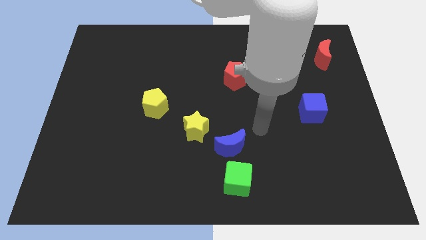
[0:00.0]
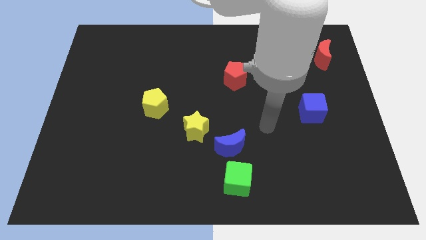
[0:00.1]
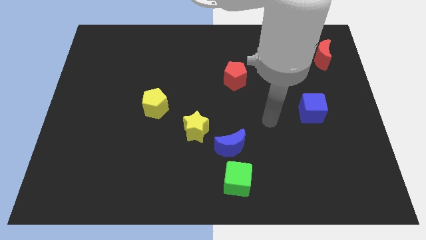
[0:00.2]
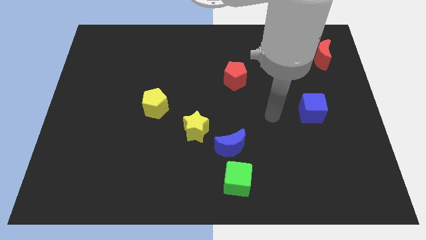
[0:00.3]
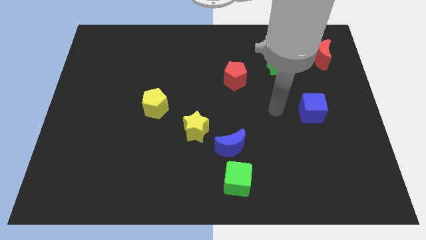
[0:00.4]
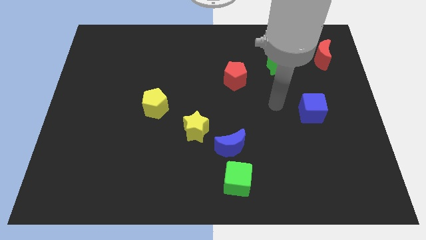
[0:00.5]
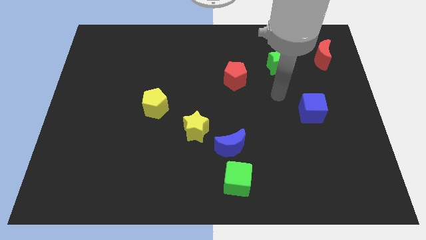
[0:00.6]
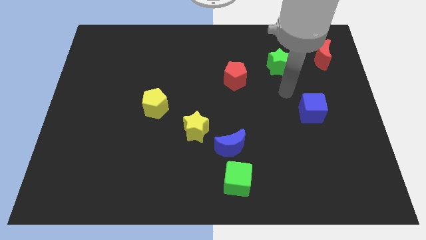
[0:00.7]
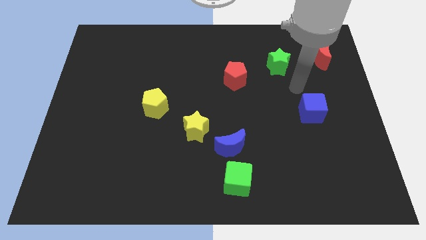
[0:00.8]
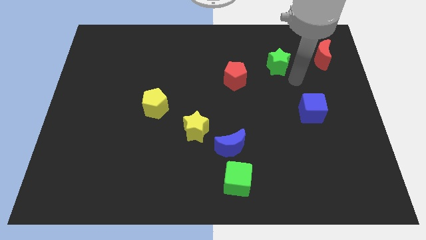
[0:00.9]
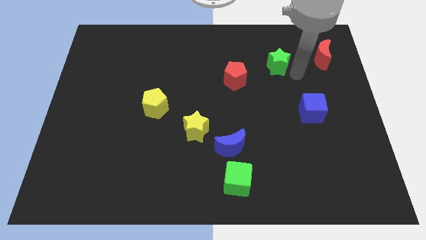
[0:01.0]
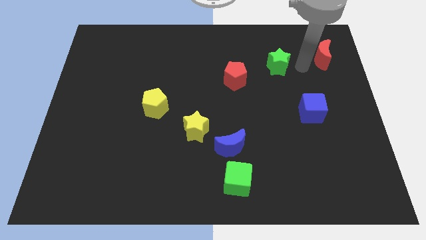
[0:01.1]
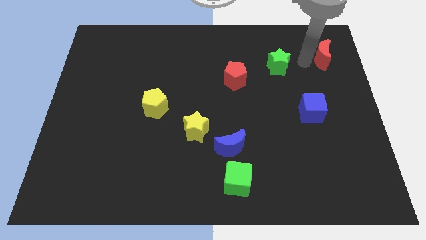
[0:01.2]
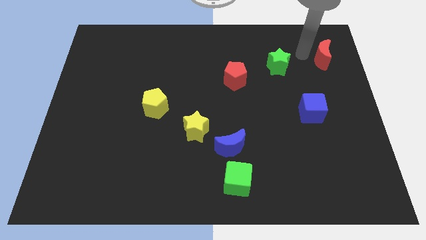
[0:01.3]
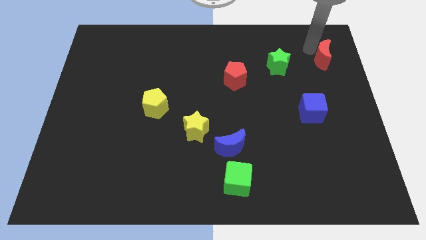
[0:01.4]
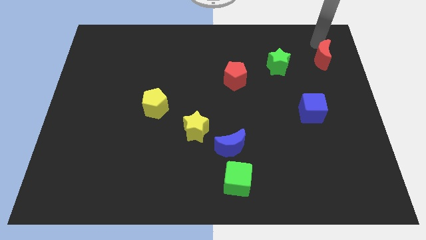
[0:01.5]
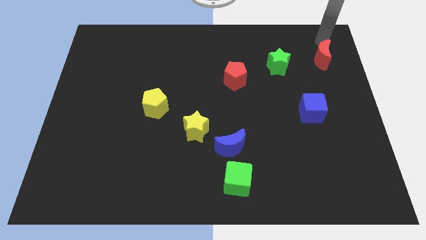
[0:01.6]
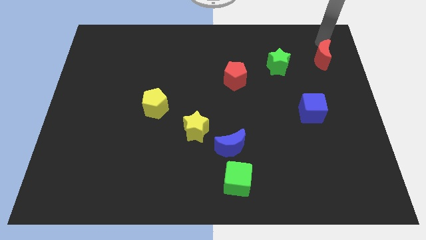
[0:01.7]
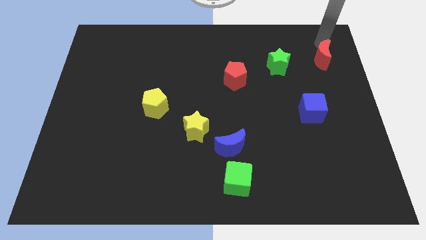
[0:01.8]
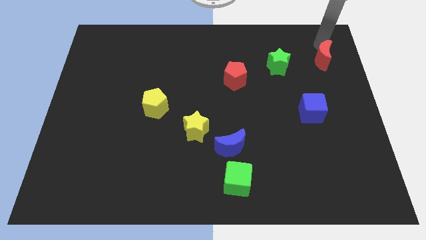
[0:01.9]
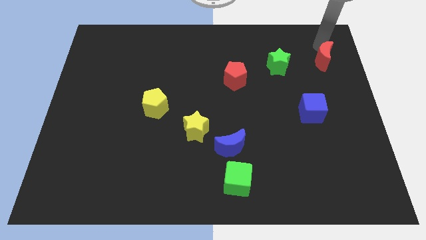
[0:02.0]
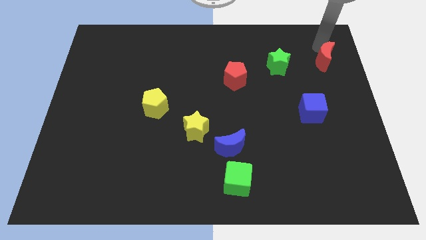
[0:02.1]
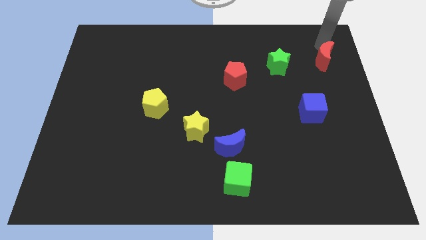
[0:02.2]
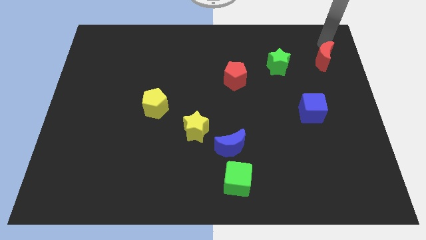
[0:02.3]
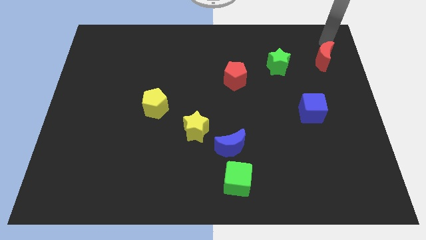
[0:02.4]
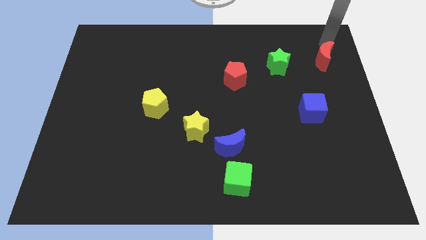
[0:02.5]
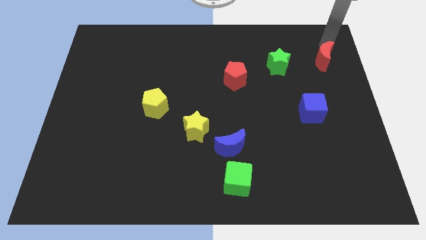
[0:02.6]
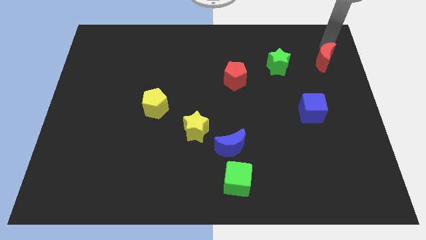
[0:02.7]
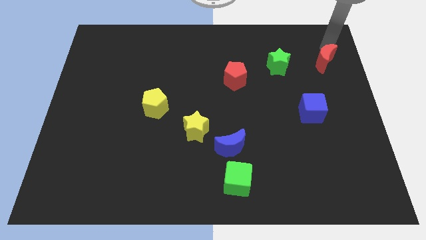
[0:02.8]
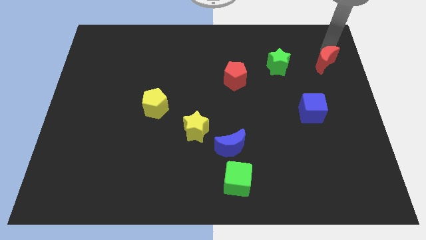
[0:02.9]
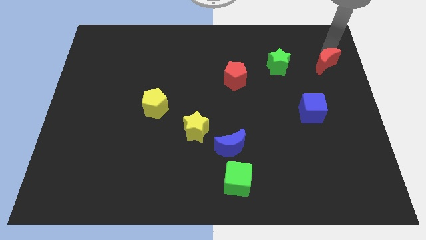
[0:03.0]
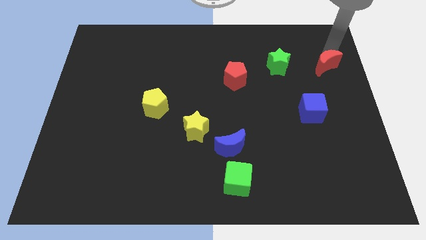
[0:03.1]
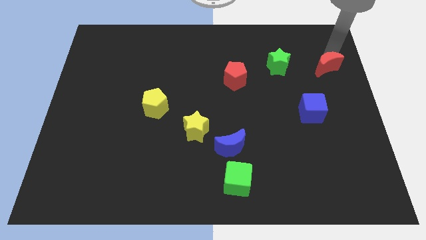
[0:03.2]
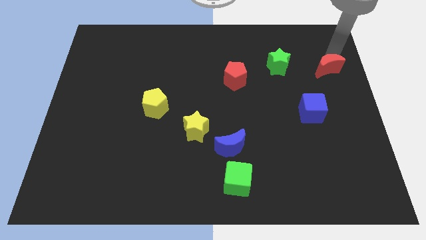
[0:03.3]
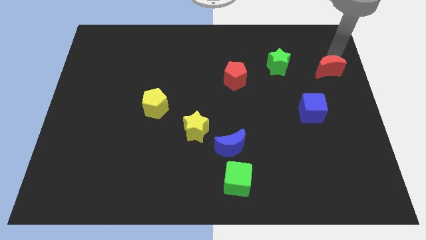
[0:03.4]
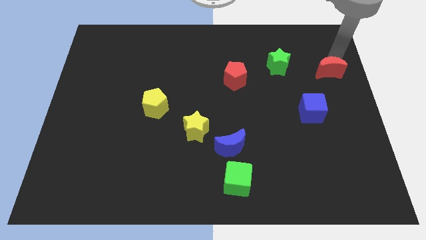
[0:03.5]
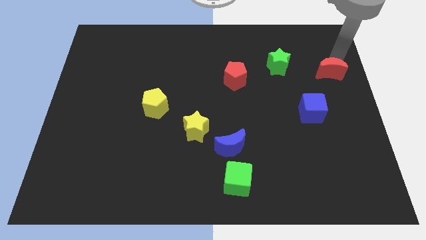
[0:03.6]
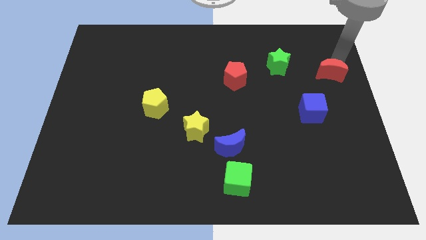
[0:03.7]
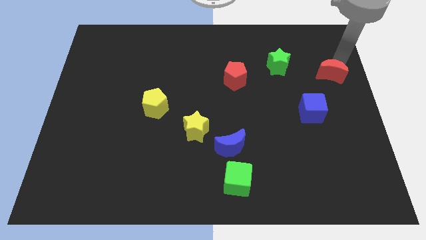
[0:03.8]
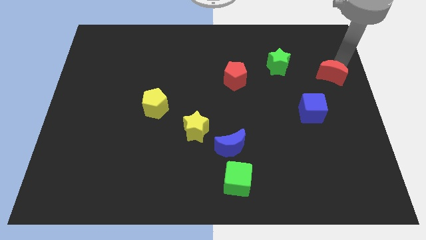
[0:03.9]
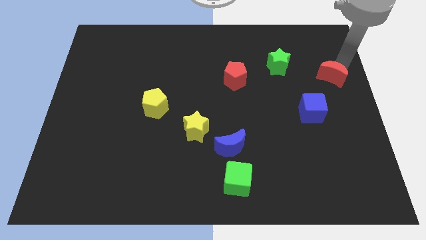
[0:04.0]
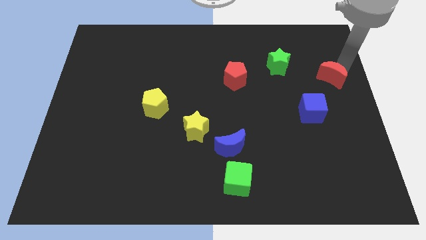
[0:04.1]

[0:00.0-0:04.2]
push the red moon down a little

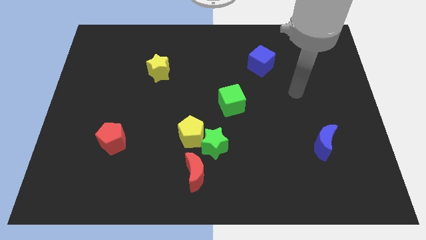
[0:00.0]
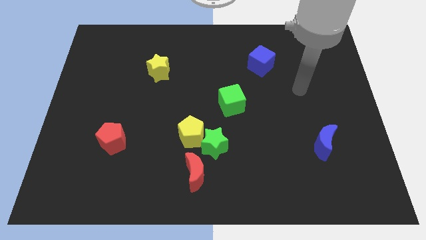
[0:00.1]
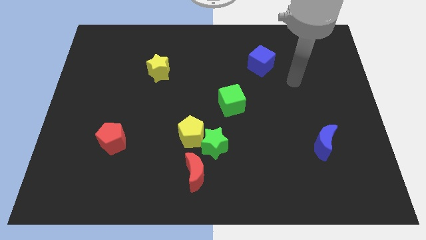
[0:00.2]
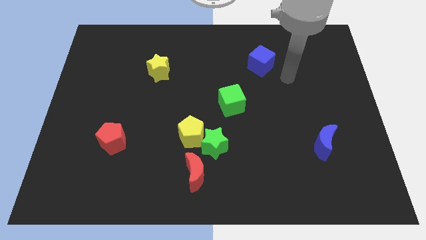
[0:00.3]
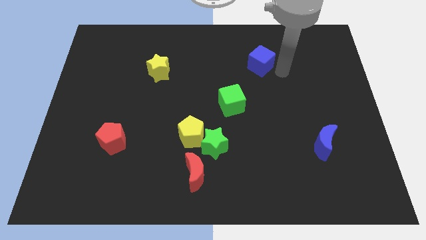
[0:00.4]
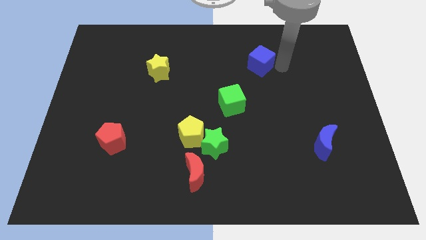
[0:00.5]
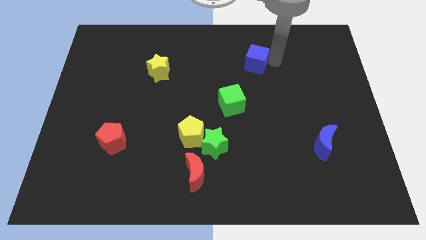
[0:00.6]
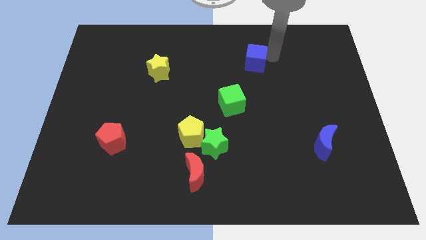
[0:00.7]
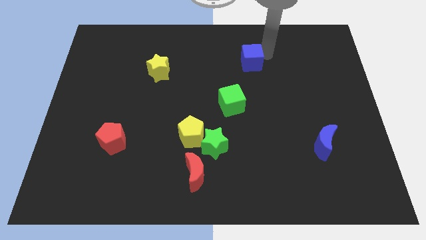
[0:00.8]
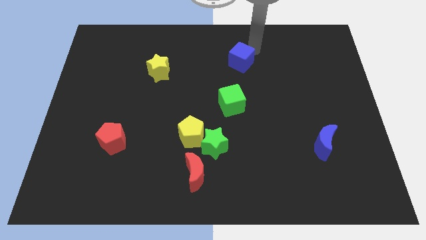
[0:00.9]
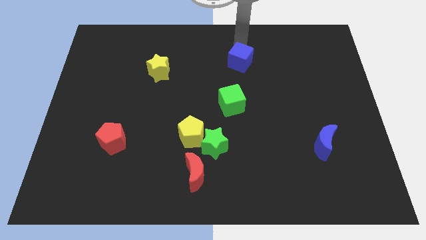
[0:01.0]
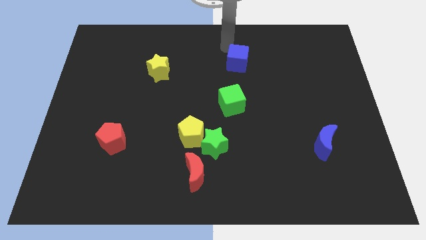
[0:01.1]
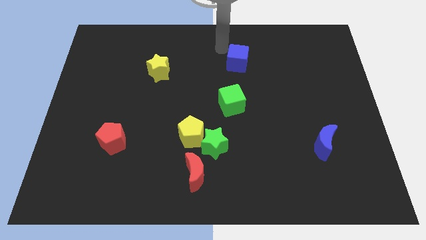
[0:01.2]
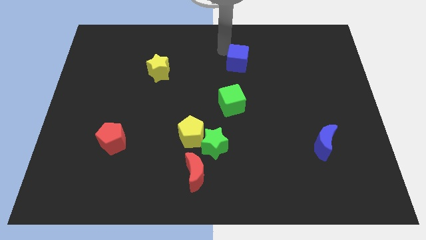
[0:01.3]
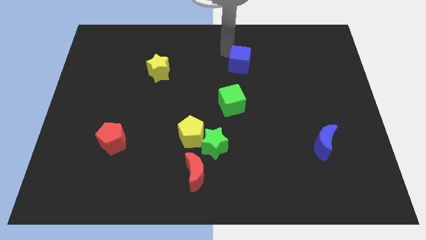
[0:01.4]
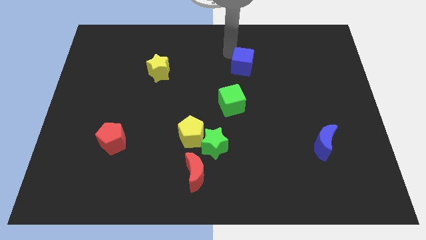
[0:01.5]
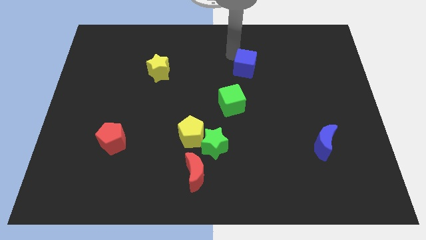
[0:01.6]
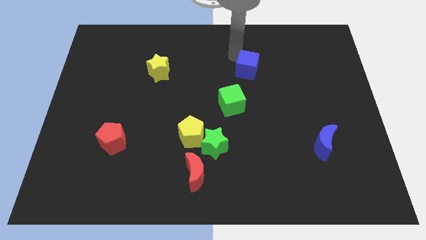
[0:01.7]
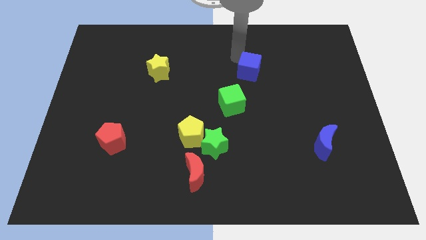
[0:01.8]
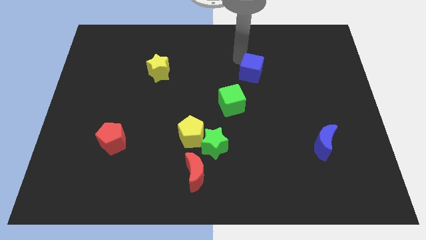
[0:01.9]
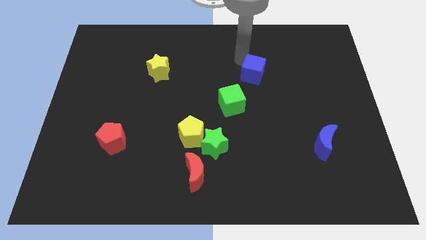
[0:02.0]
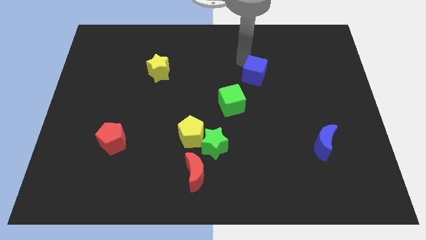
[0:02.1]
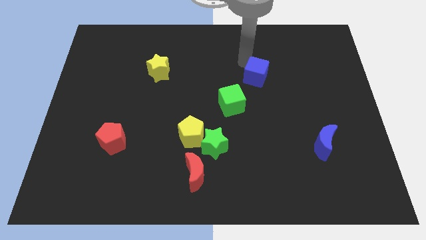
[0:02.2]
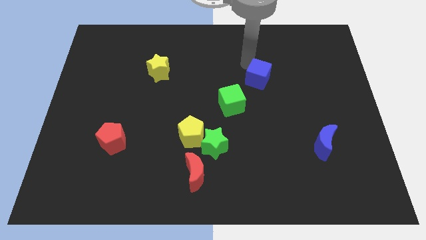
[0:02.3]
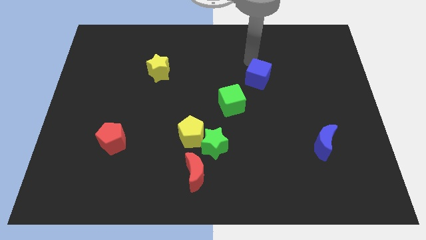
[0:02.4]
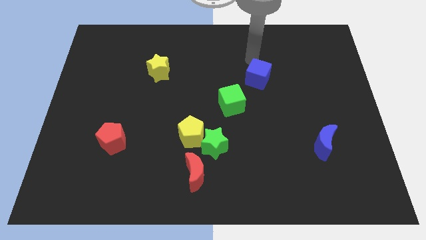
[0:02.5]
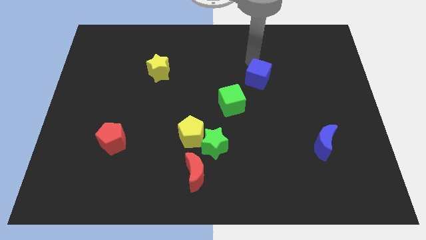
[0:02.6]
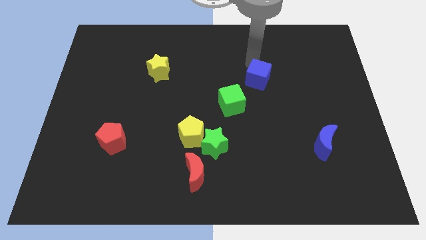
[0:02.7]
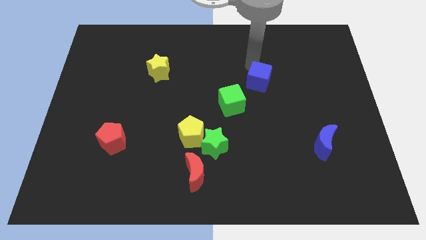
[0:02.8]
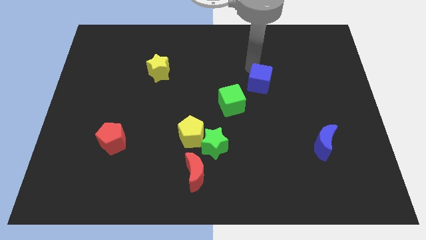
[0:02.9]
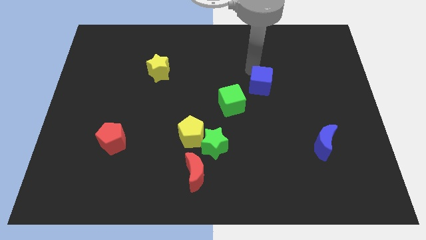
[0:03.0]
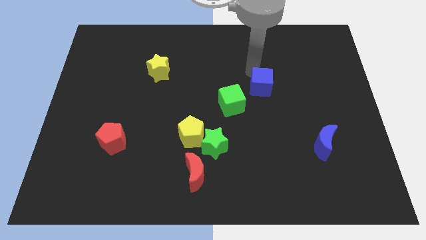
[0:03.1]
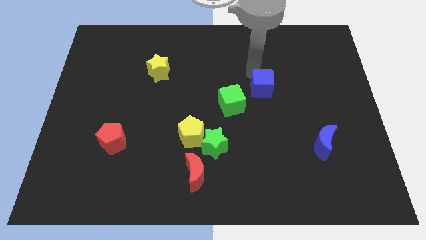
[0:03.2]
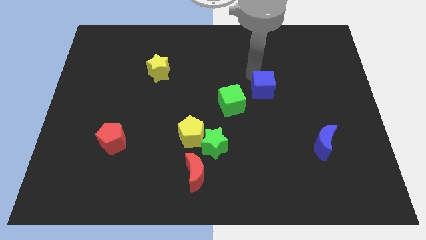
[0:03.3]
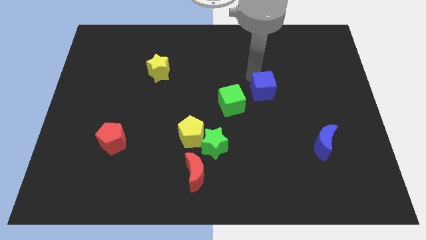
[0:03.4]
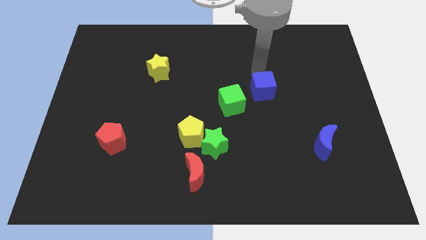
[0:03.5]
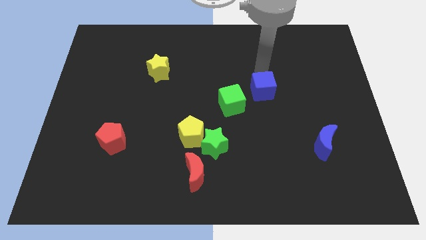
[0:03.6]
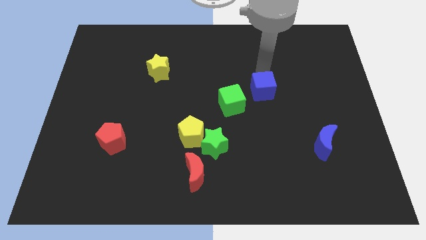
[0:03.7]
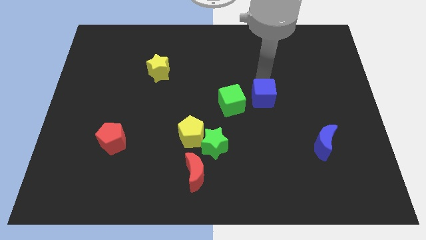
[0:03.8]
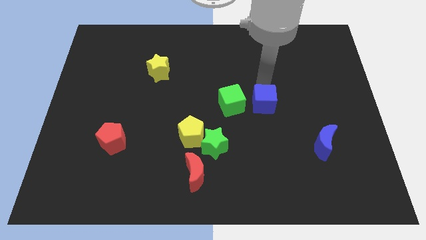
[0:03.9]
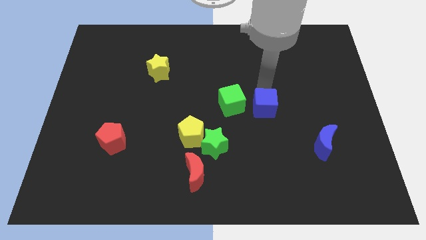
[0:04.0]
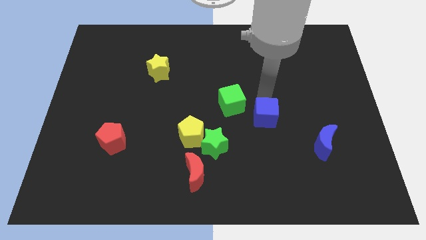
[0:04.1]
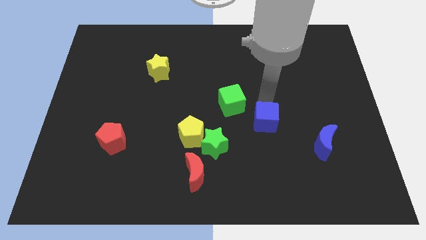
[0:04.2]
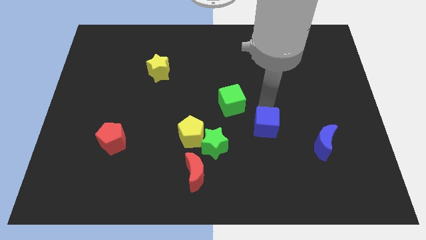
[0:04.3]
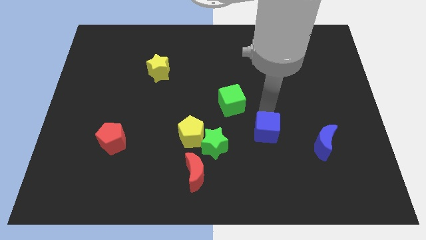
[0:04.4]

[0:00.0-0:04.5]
push the blue cube down

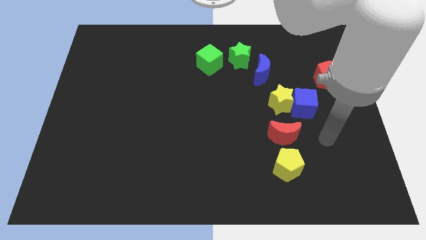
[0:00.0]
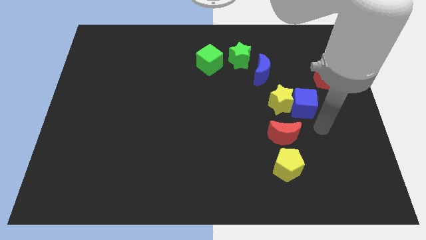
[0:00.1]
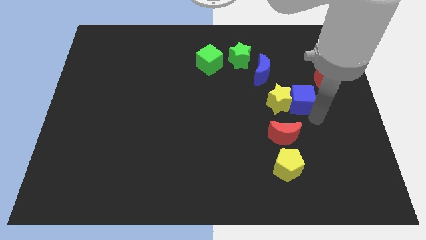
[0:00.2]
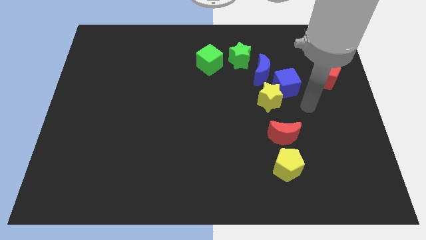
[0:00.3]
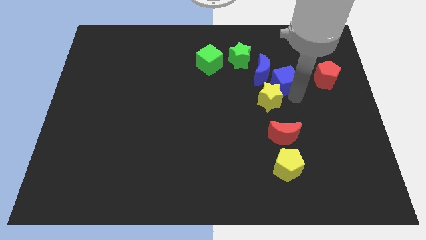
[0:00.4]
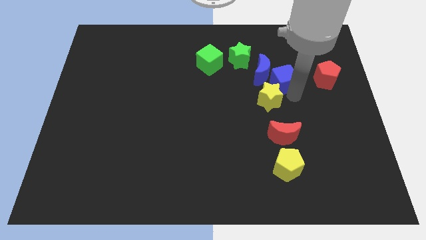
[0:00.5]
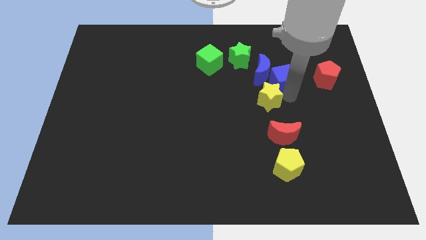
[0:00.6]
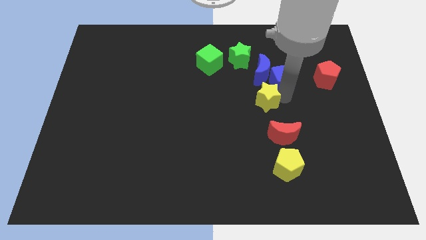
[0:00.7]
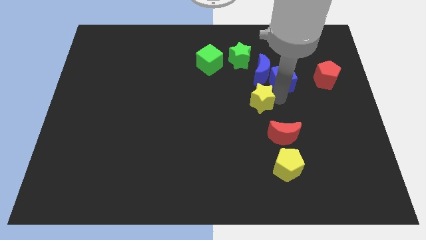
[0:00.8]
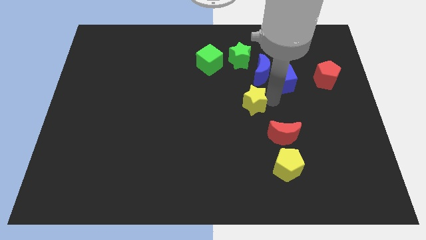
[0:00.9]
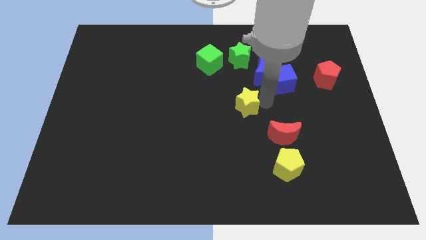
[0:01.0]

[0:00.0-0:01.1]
slightly move the yellow star to the left
